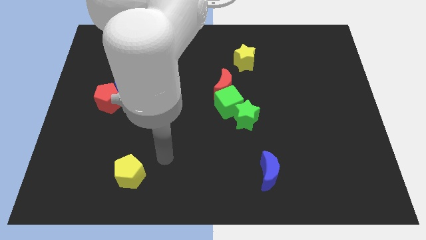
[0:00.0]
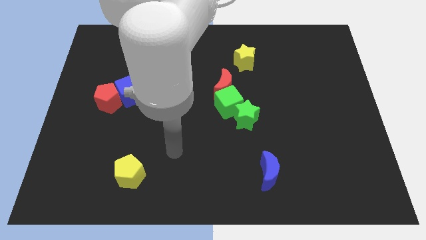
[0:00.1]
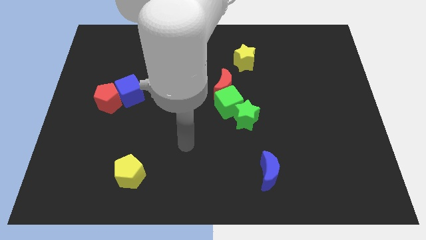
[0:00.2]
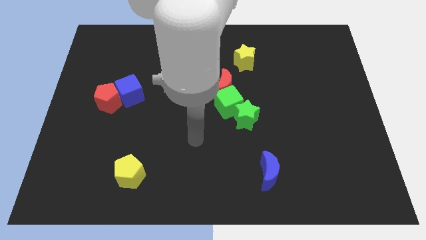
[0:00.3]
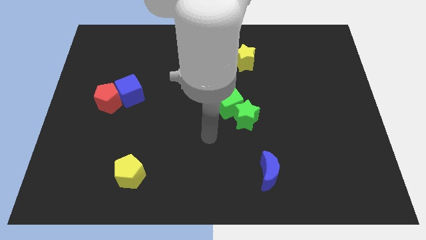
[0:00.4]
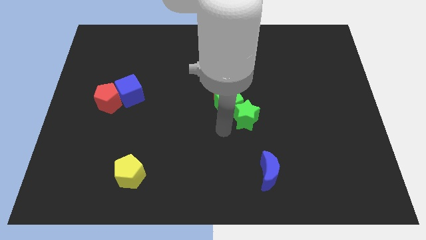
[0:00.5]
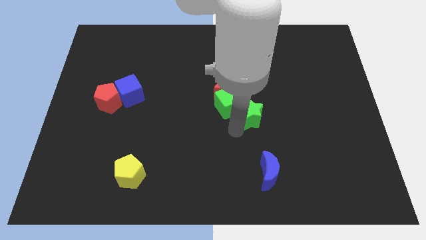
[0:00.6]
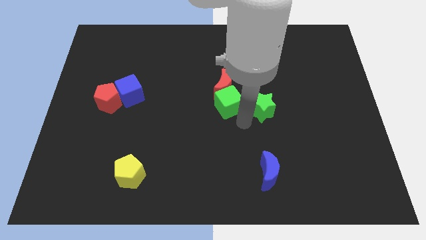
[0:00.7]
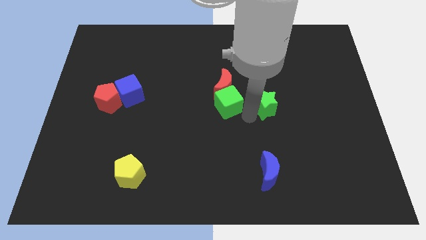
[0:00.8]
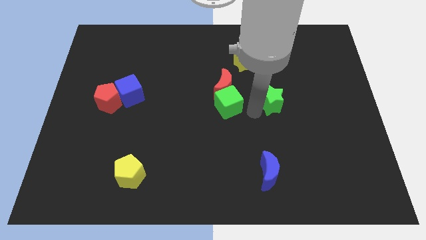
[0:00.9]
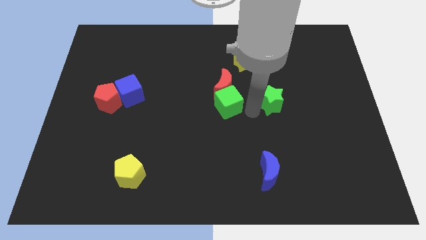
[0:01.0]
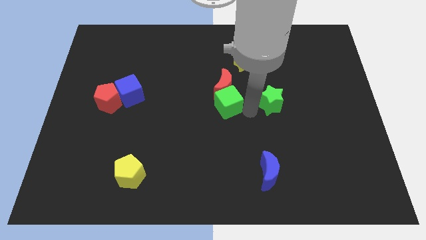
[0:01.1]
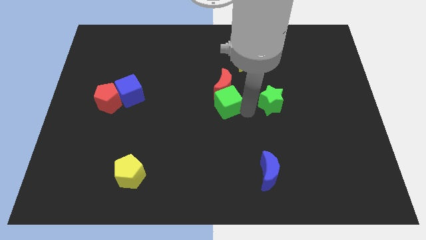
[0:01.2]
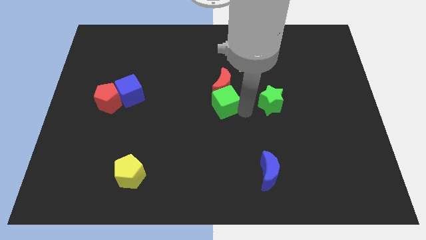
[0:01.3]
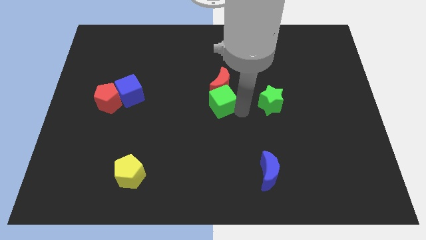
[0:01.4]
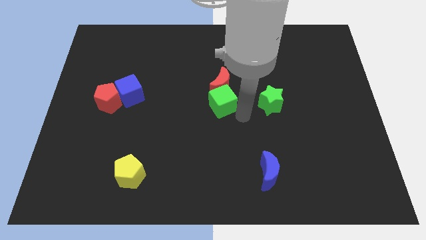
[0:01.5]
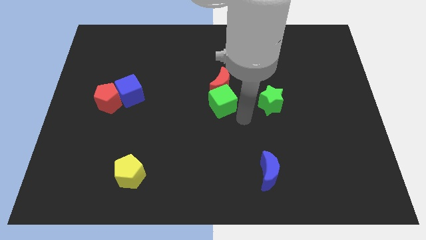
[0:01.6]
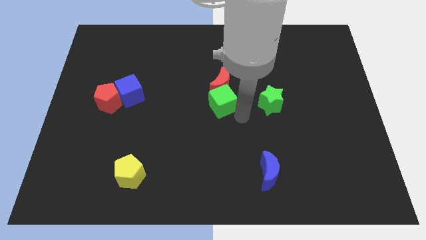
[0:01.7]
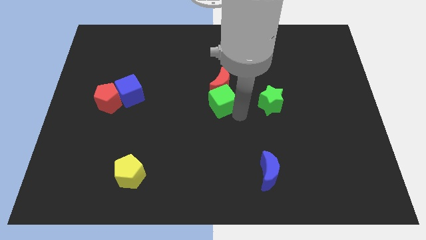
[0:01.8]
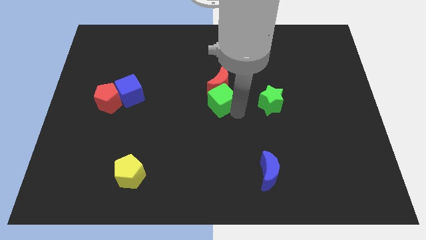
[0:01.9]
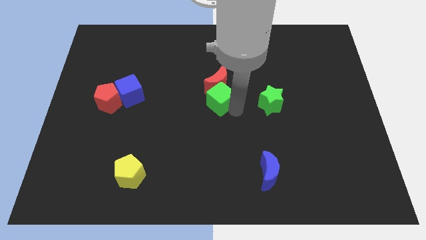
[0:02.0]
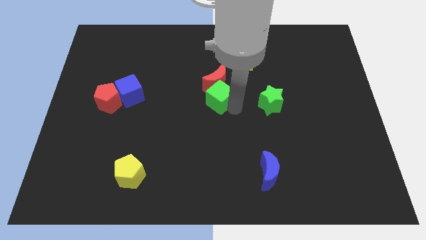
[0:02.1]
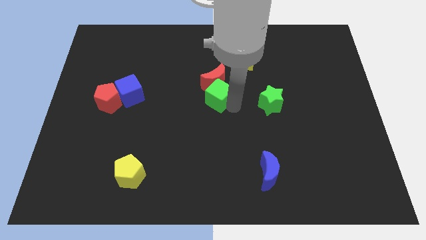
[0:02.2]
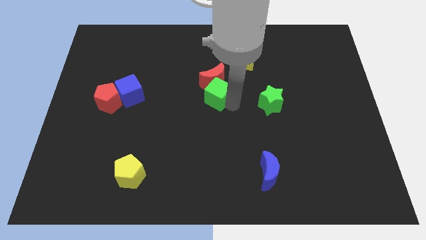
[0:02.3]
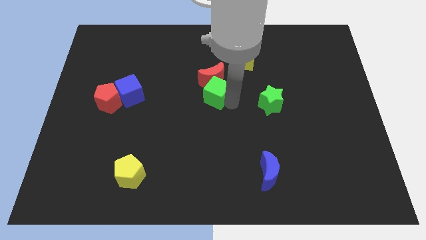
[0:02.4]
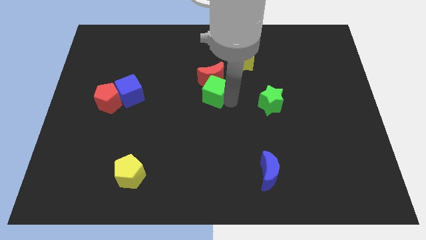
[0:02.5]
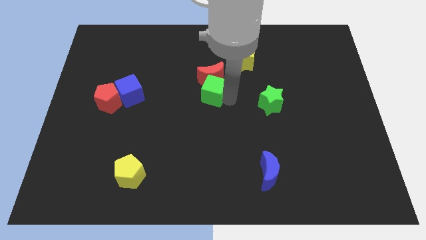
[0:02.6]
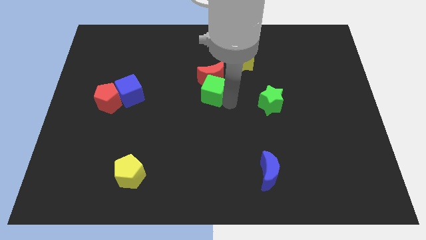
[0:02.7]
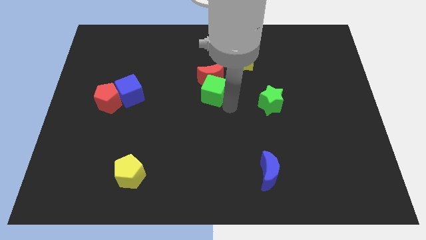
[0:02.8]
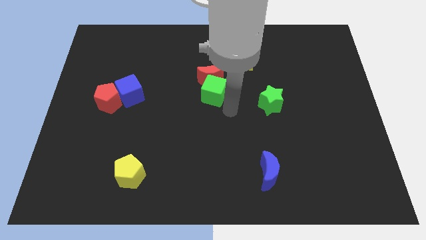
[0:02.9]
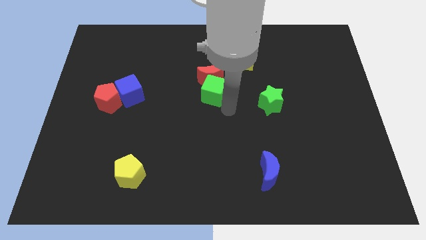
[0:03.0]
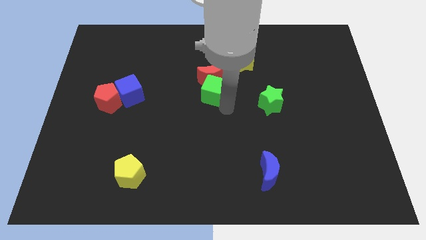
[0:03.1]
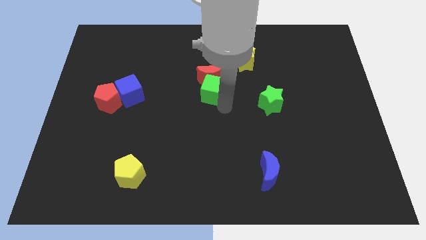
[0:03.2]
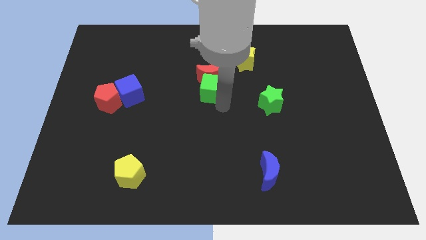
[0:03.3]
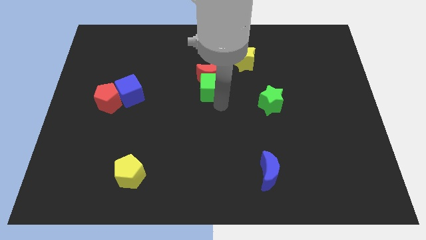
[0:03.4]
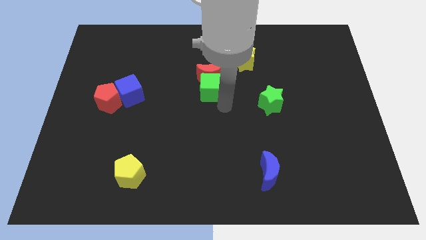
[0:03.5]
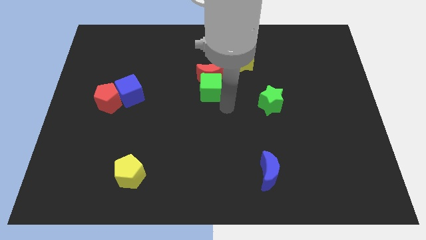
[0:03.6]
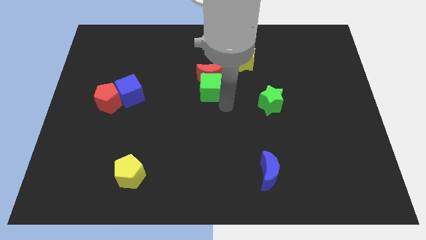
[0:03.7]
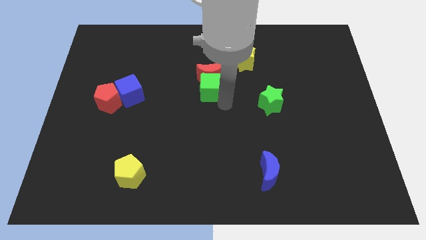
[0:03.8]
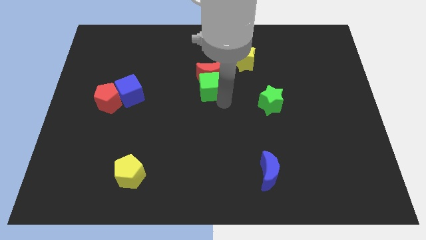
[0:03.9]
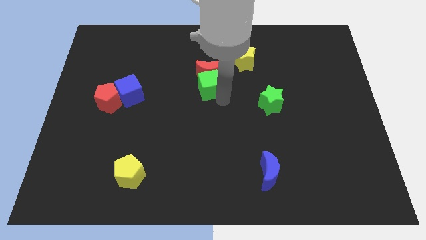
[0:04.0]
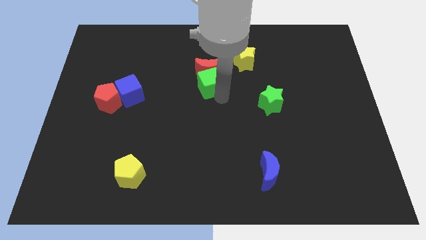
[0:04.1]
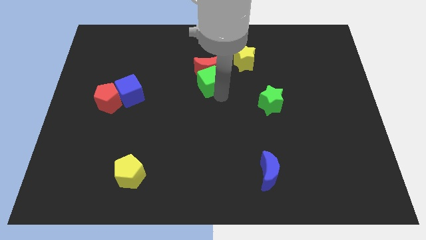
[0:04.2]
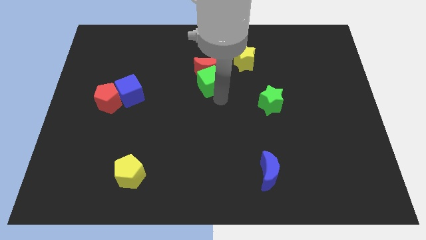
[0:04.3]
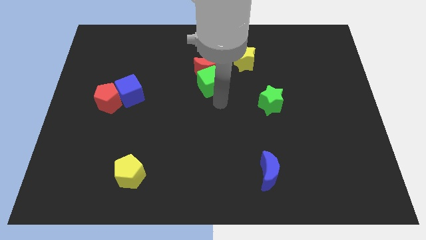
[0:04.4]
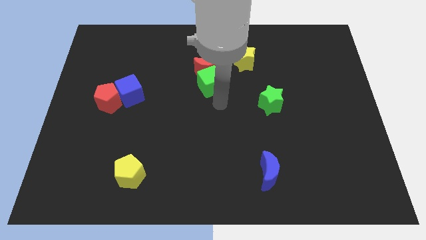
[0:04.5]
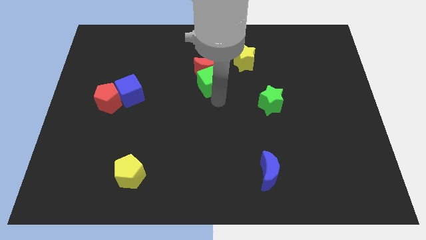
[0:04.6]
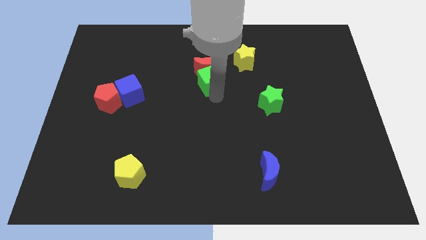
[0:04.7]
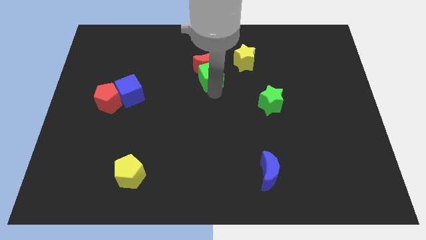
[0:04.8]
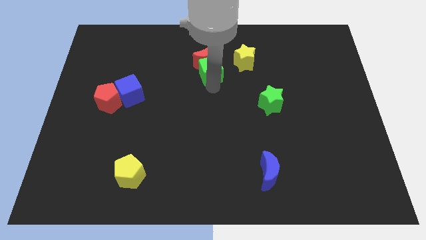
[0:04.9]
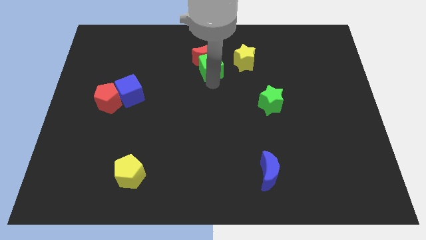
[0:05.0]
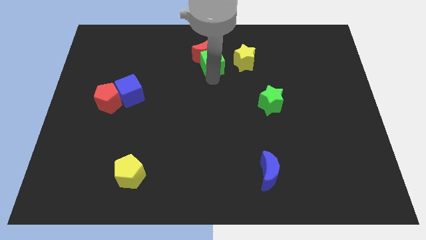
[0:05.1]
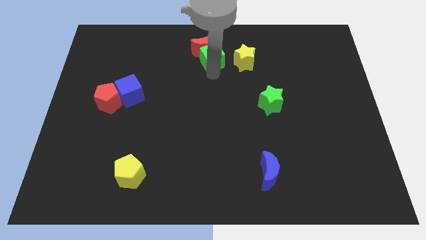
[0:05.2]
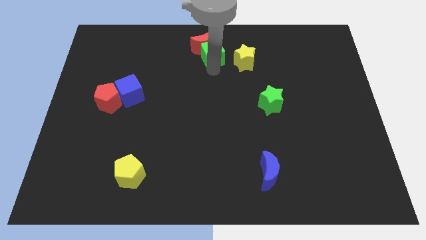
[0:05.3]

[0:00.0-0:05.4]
move the green cube to the top side
